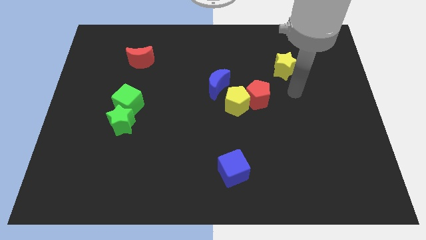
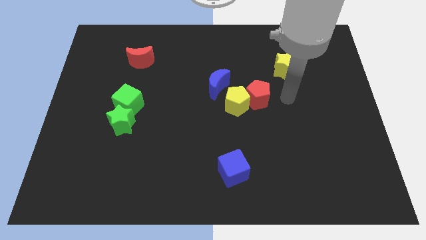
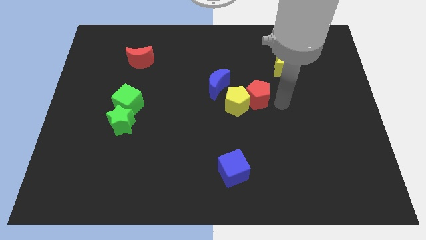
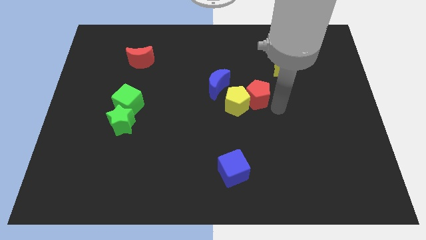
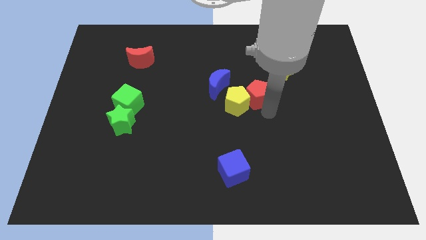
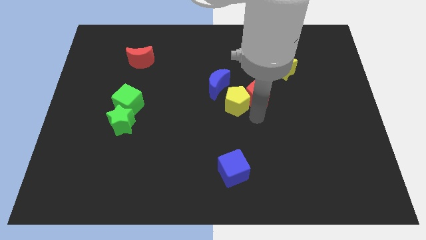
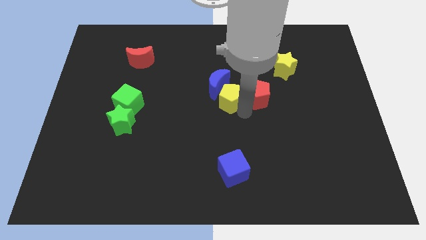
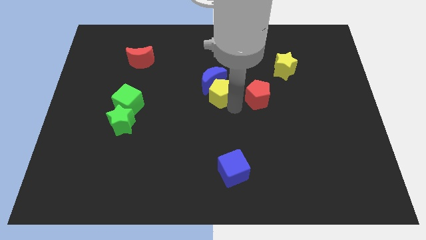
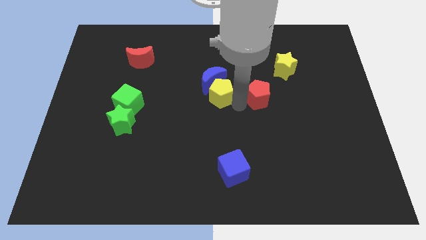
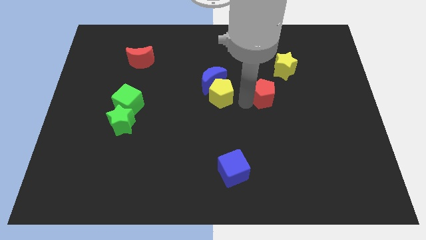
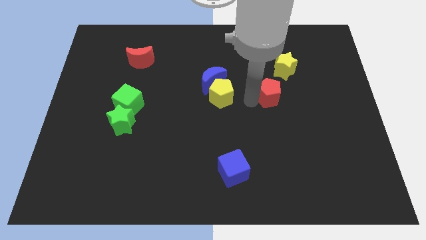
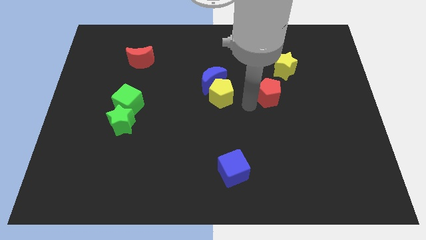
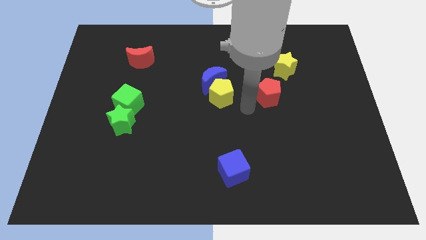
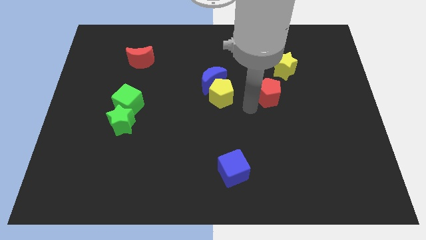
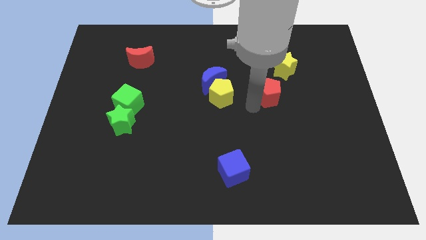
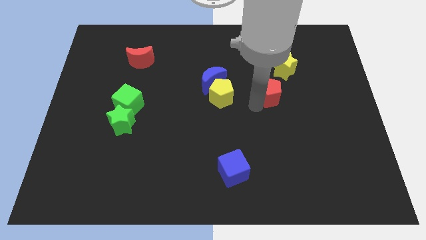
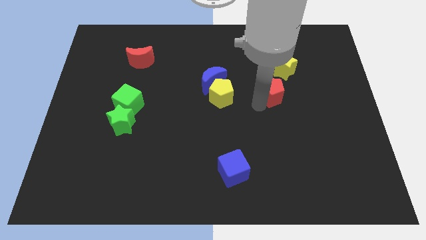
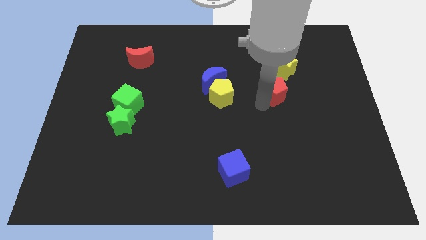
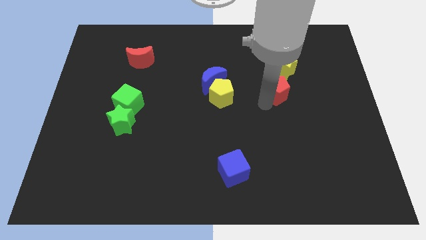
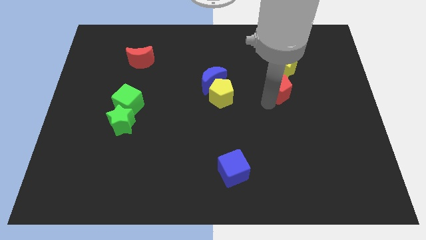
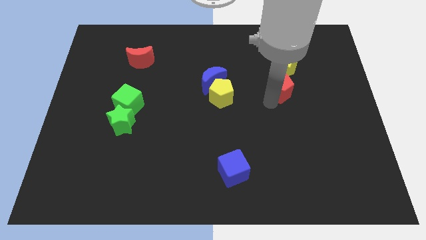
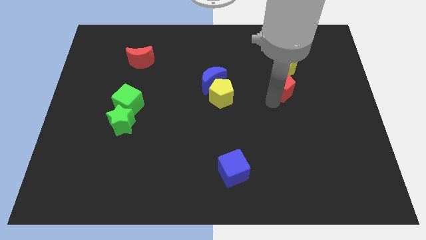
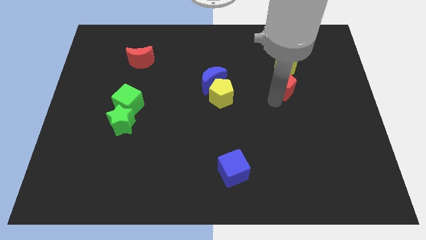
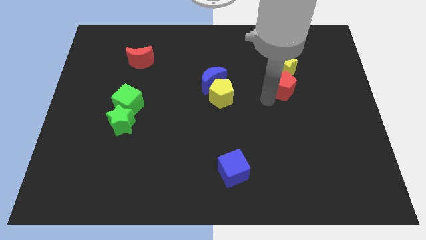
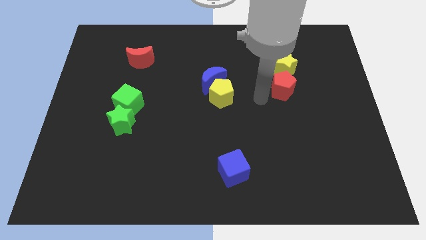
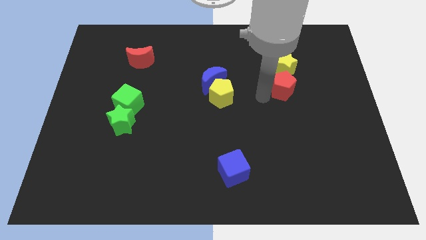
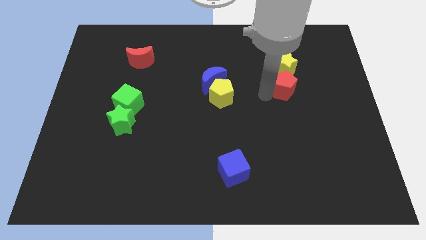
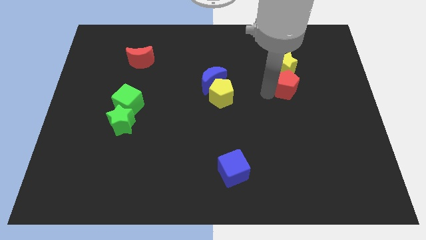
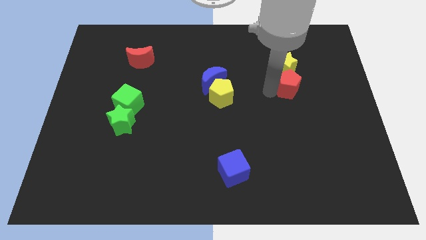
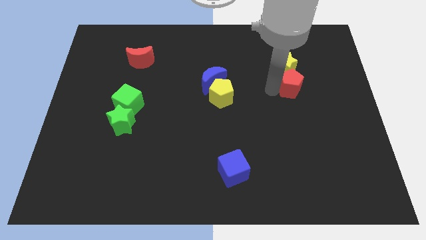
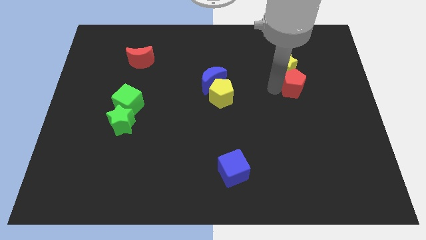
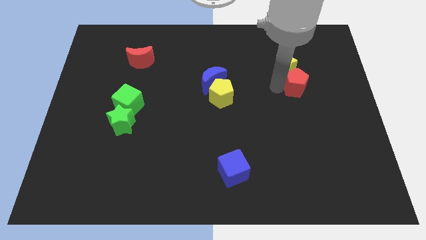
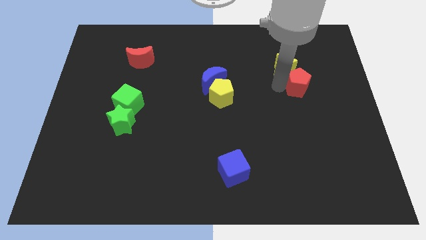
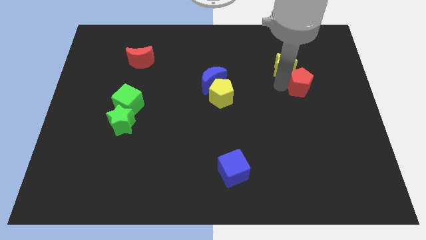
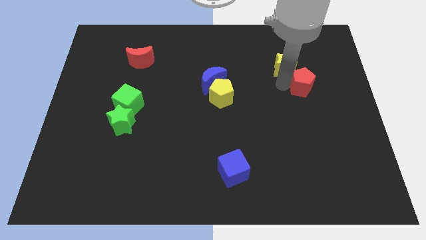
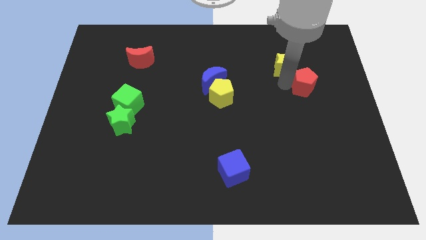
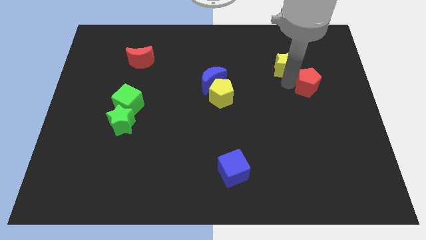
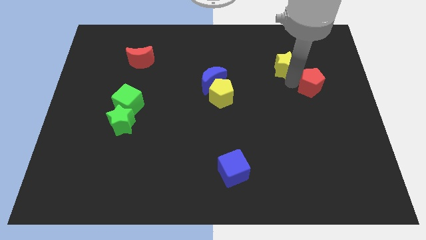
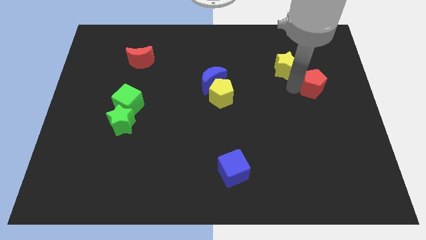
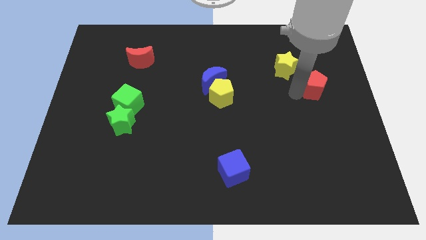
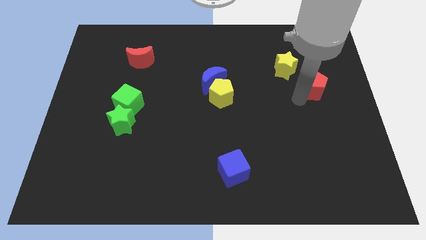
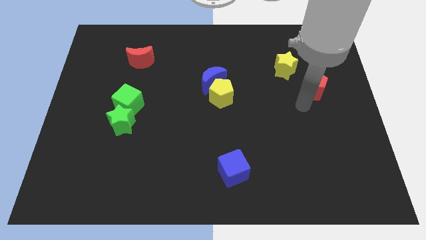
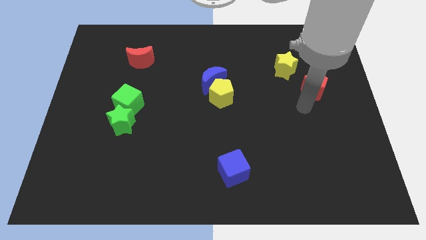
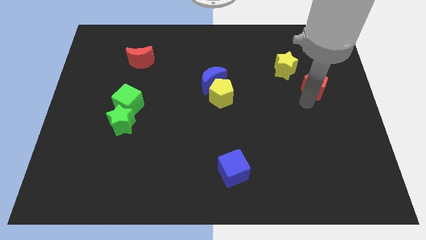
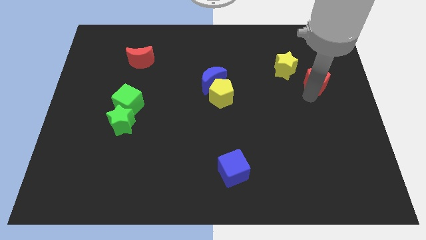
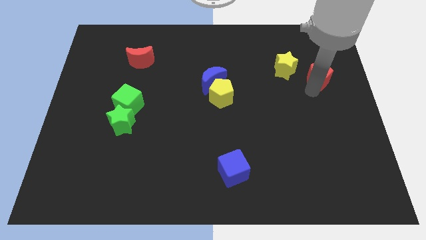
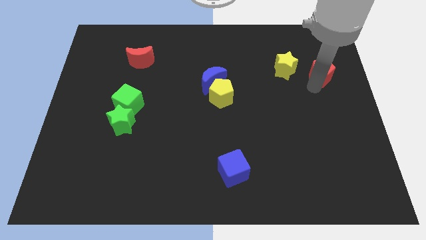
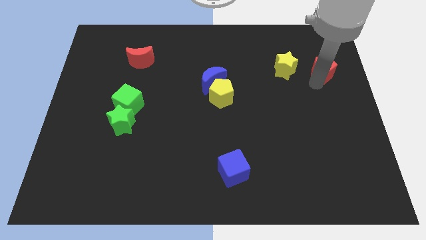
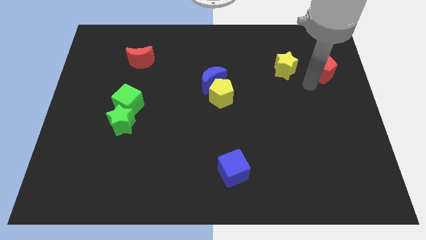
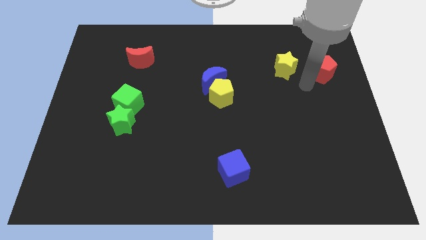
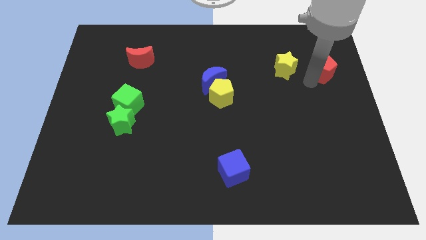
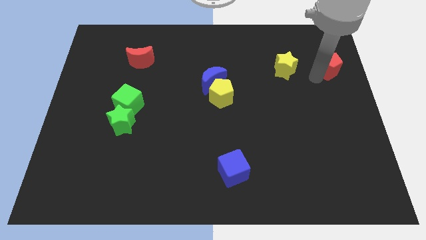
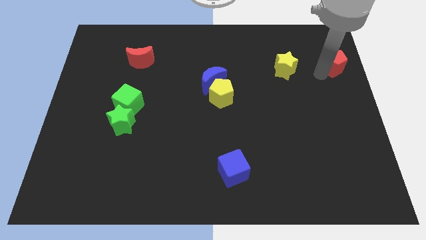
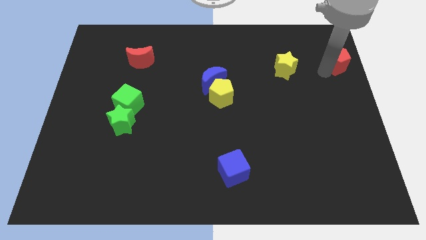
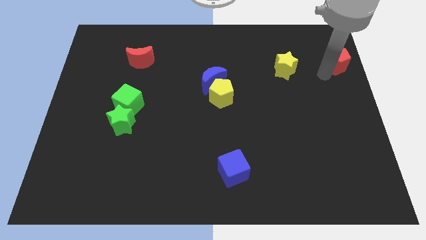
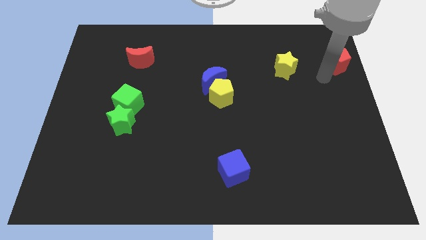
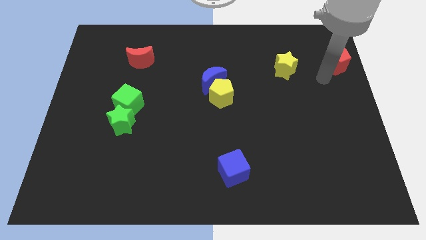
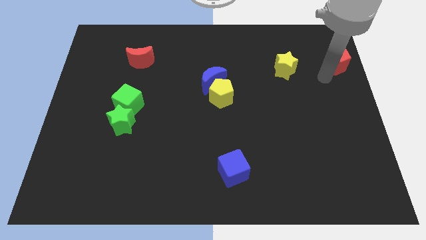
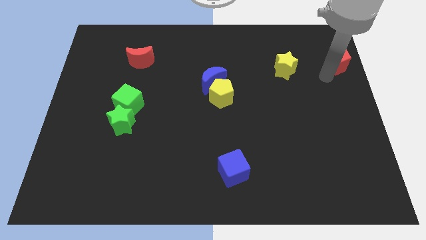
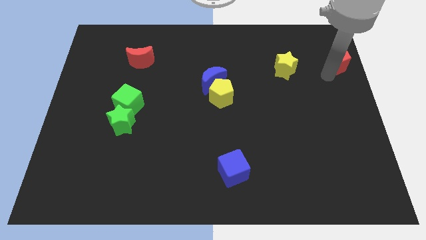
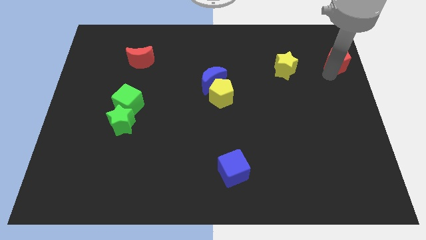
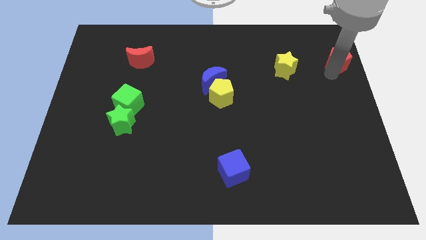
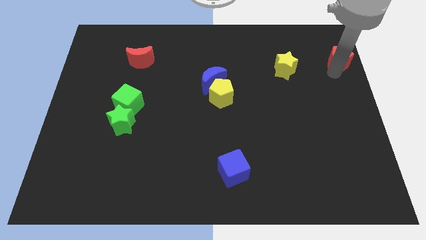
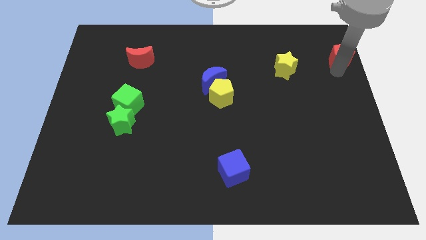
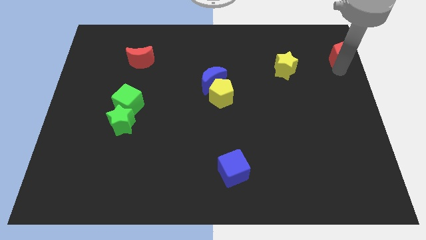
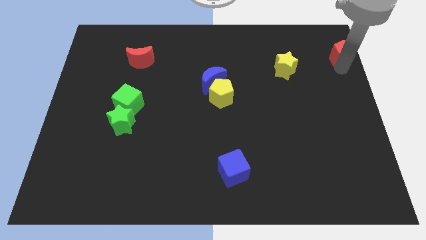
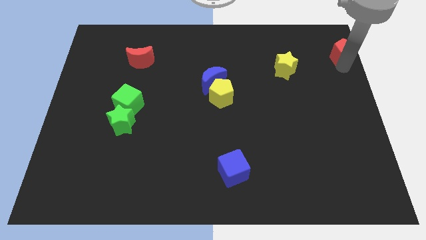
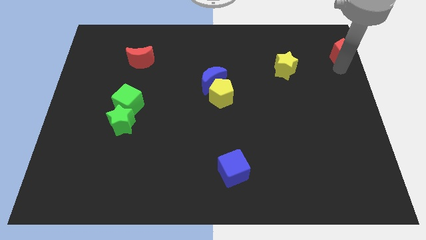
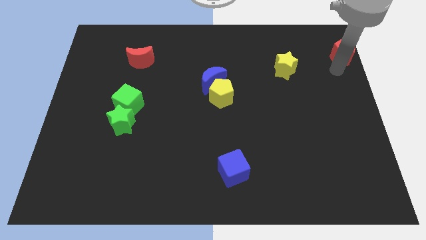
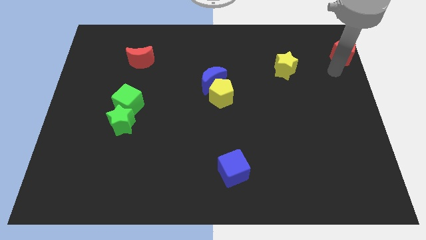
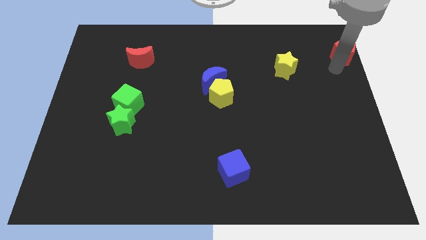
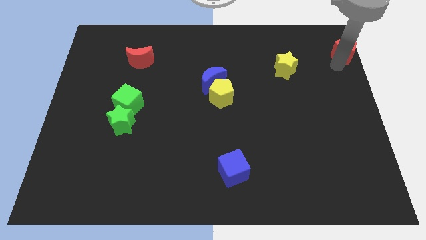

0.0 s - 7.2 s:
put the red pentagon to the top right of the board
